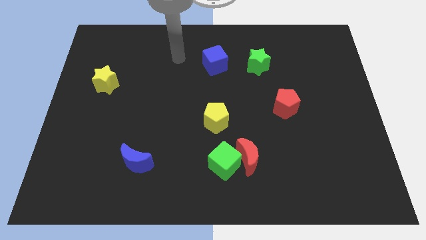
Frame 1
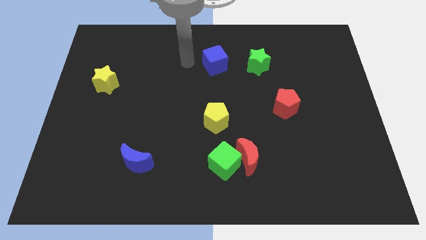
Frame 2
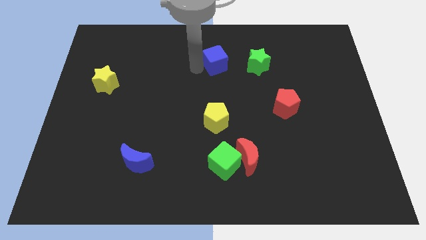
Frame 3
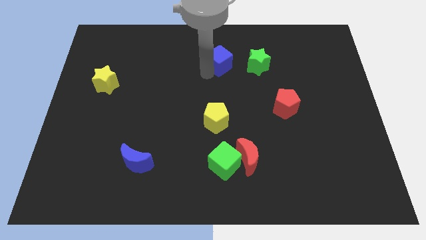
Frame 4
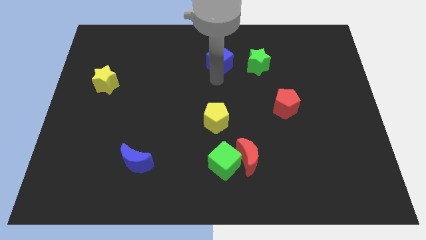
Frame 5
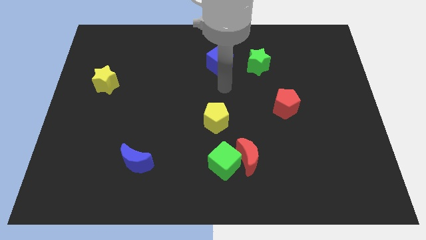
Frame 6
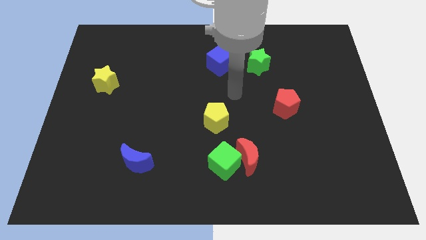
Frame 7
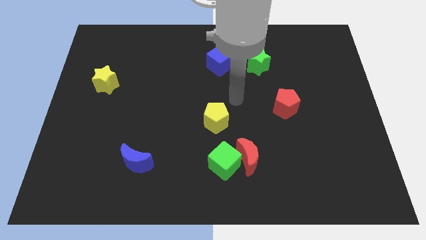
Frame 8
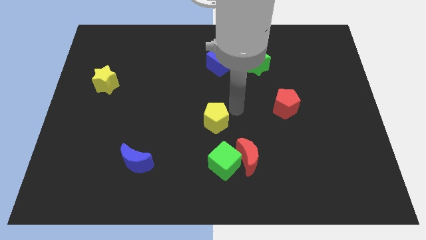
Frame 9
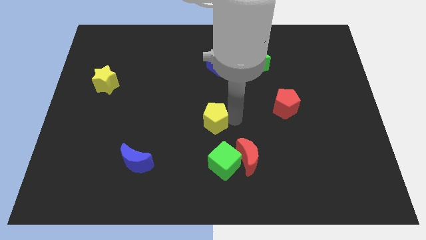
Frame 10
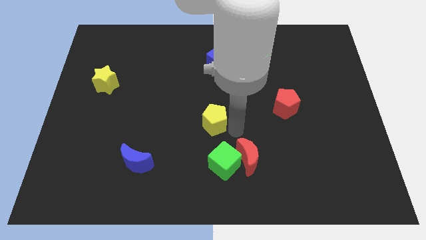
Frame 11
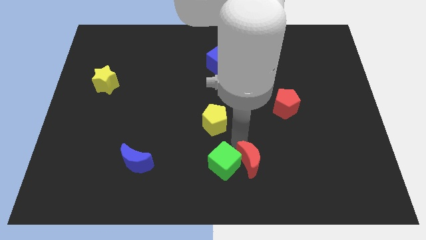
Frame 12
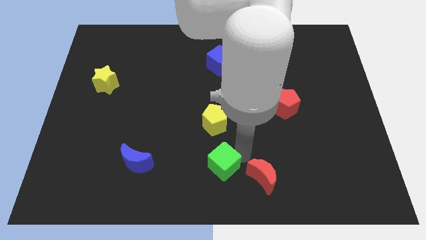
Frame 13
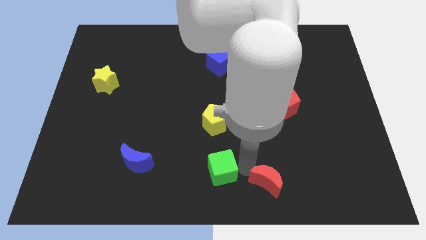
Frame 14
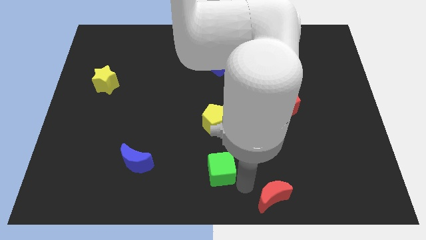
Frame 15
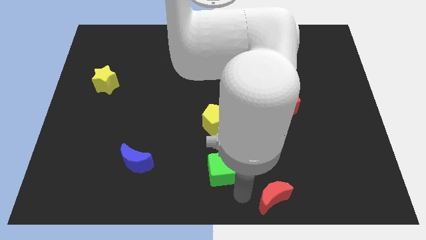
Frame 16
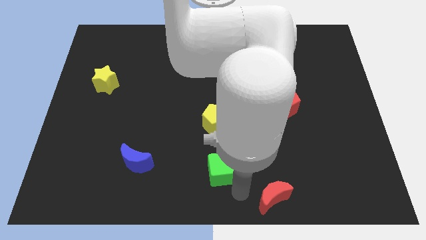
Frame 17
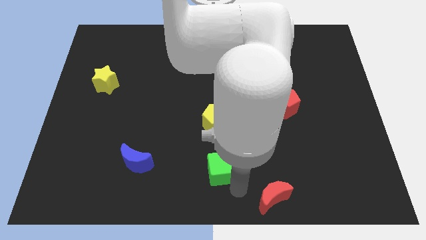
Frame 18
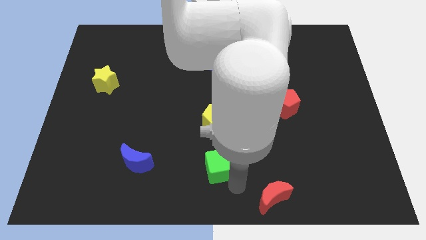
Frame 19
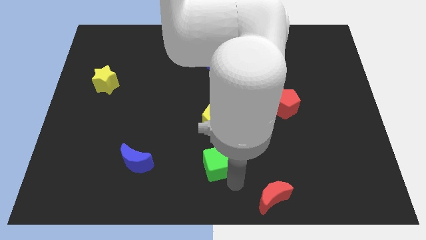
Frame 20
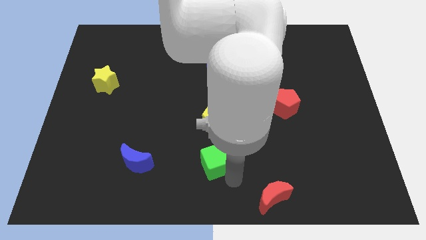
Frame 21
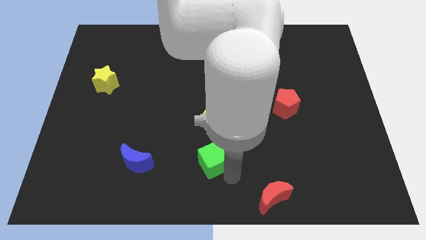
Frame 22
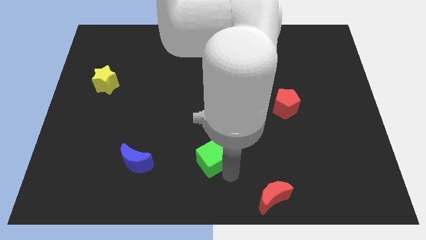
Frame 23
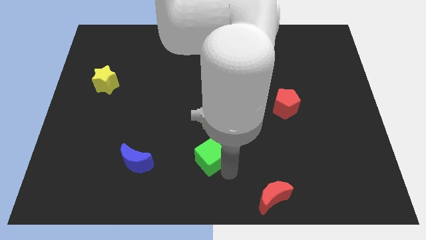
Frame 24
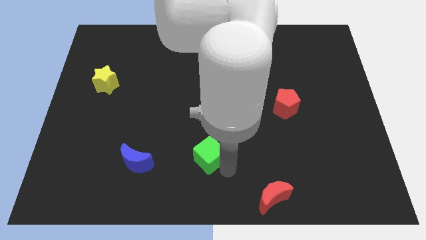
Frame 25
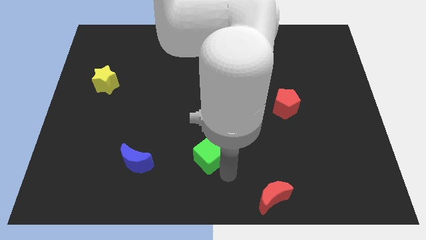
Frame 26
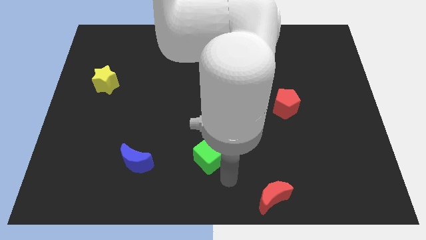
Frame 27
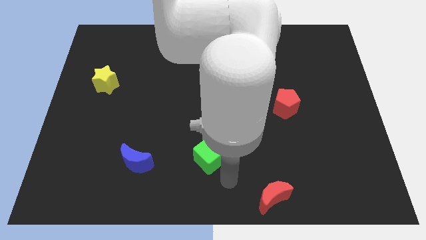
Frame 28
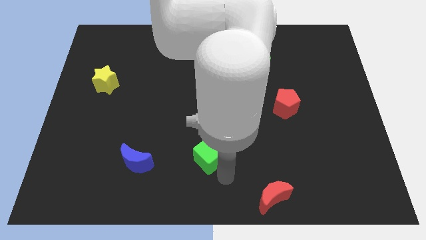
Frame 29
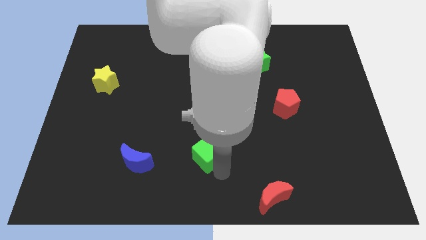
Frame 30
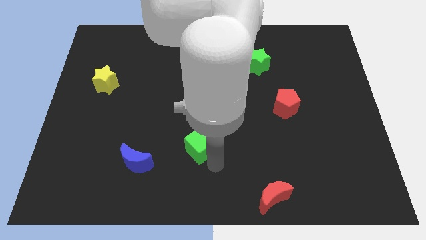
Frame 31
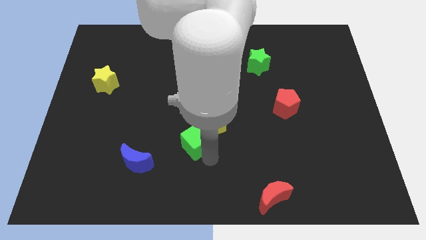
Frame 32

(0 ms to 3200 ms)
slightly move the green cube up and left

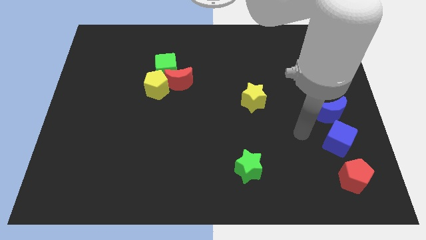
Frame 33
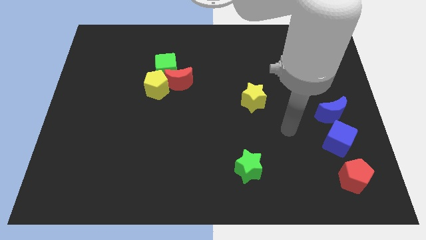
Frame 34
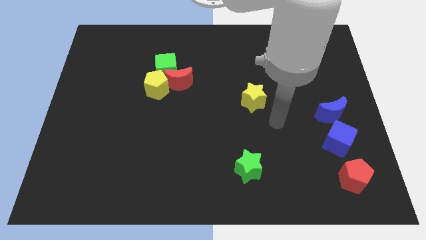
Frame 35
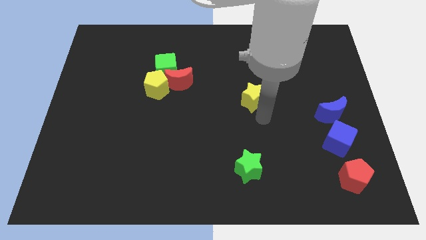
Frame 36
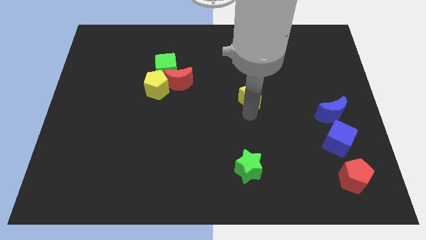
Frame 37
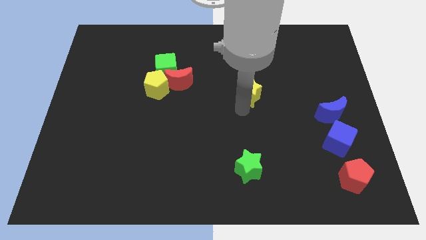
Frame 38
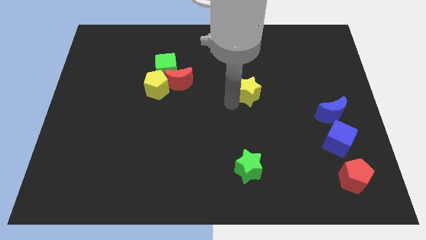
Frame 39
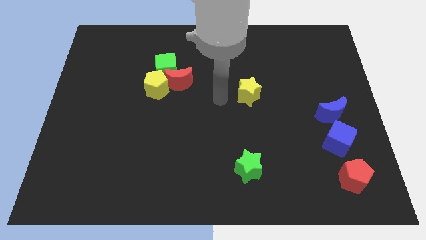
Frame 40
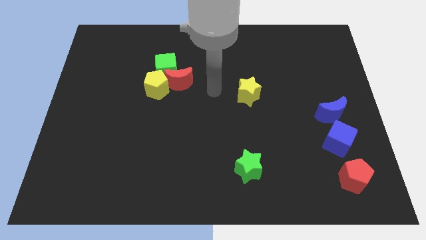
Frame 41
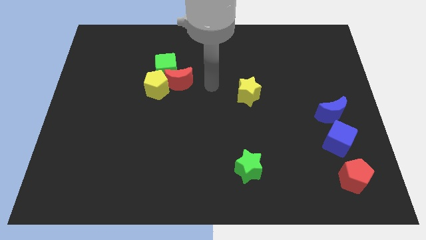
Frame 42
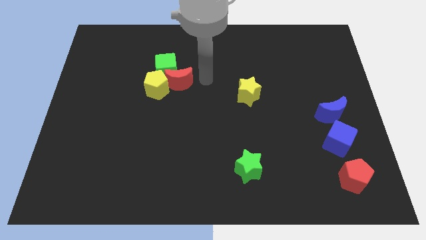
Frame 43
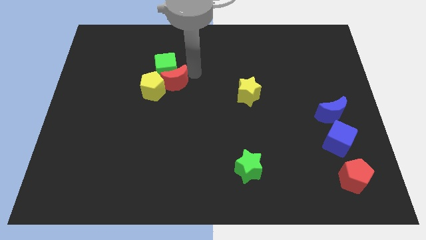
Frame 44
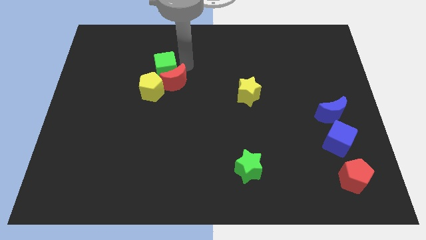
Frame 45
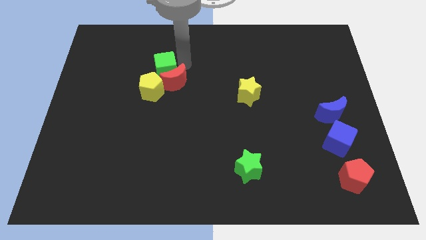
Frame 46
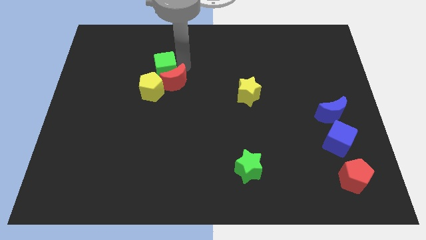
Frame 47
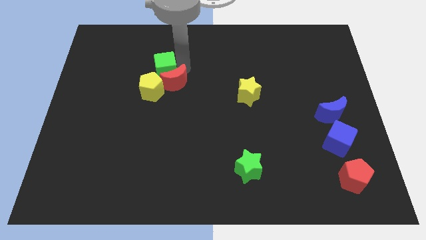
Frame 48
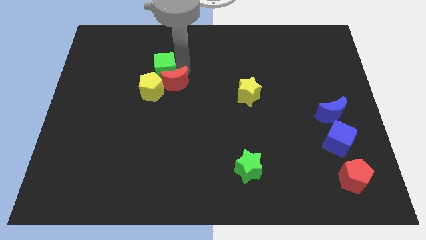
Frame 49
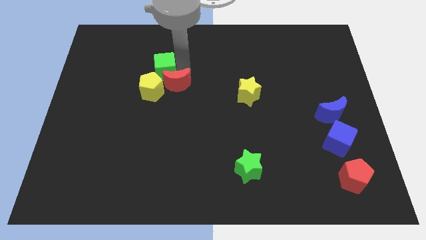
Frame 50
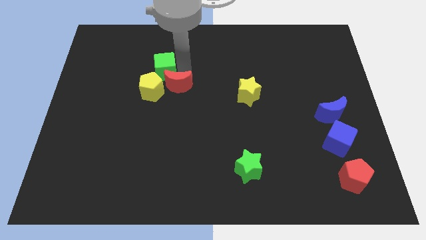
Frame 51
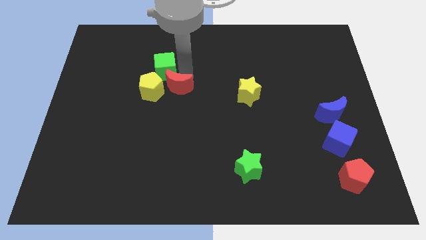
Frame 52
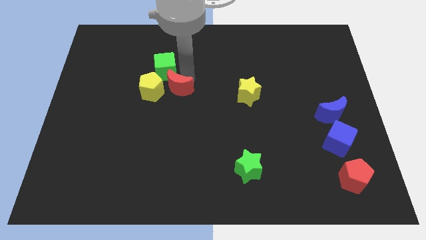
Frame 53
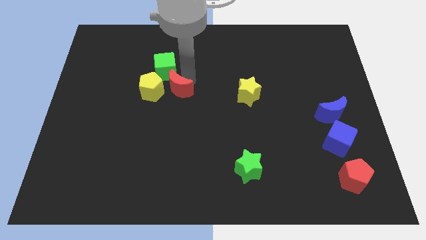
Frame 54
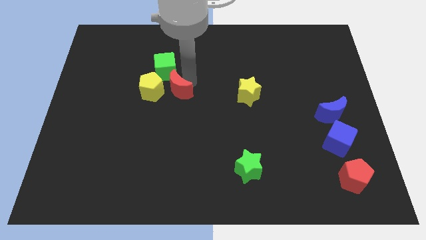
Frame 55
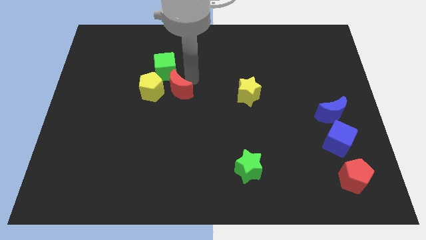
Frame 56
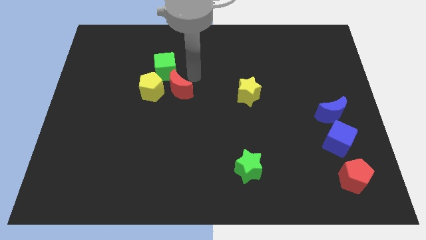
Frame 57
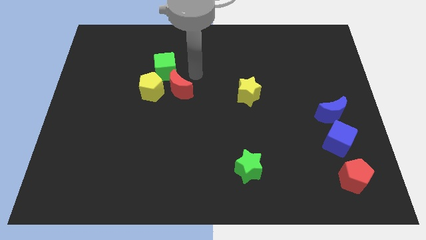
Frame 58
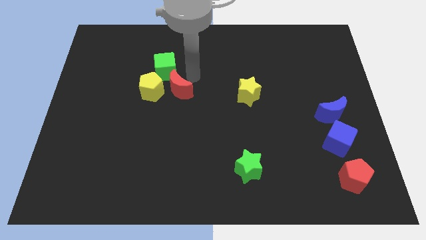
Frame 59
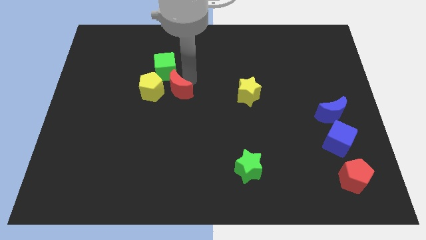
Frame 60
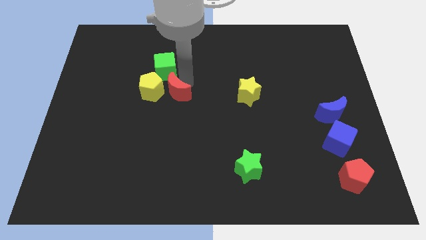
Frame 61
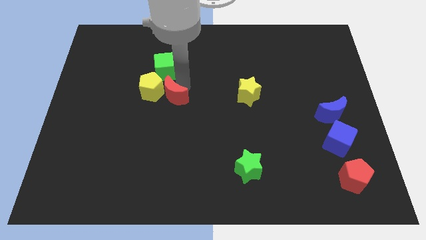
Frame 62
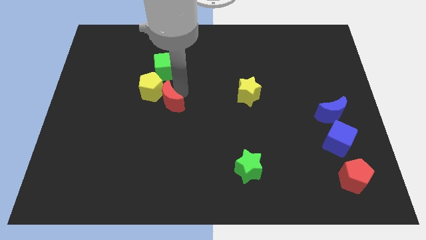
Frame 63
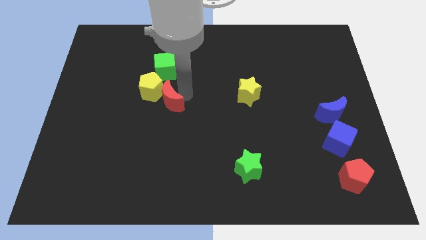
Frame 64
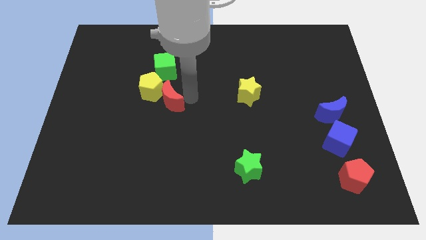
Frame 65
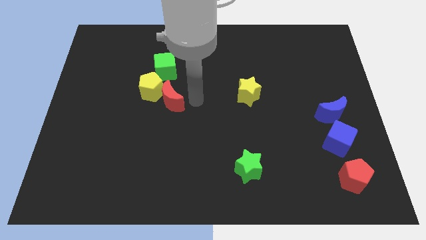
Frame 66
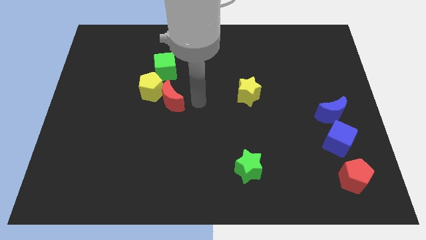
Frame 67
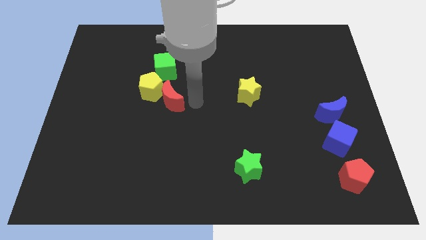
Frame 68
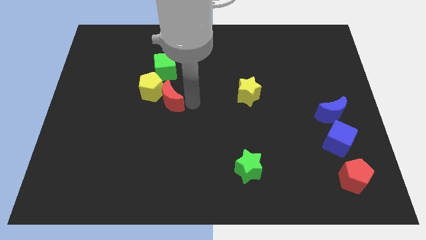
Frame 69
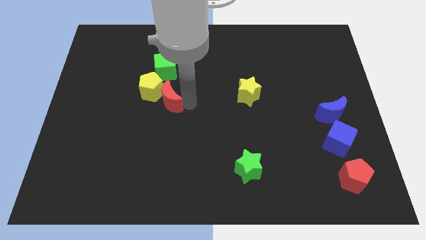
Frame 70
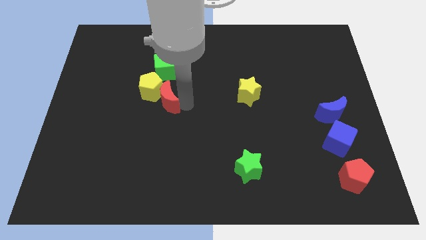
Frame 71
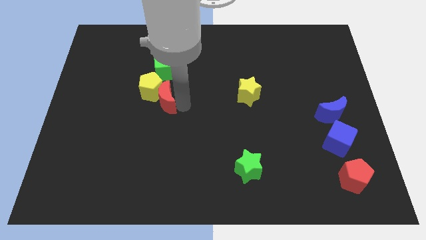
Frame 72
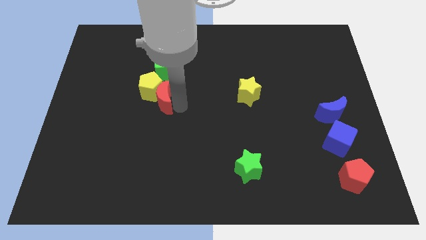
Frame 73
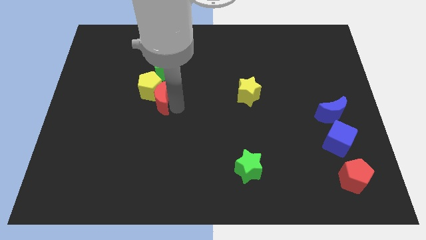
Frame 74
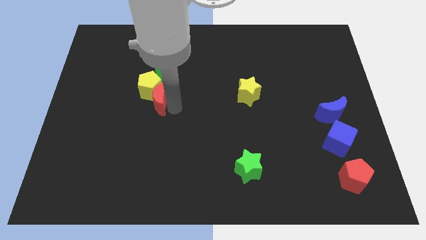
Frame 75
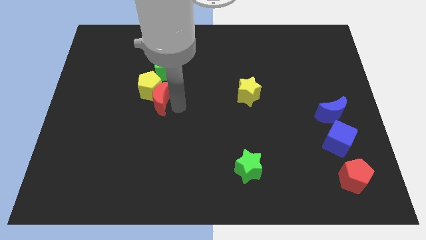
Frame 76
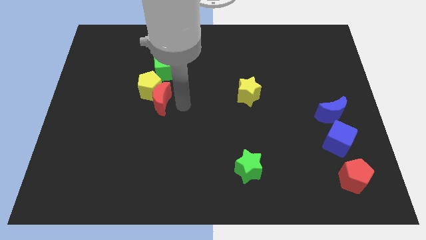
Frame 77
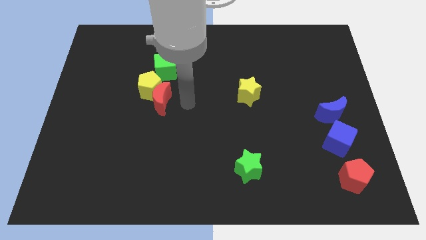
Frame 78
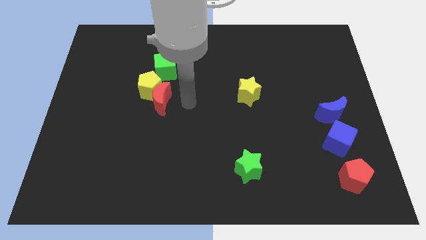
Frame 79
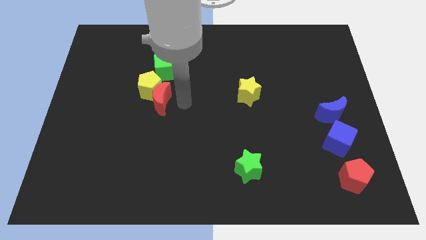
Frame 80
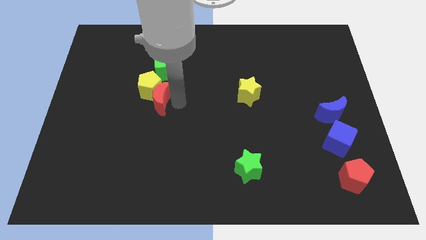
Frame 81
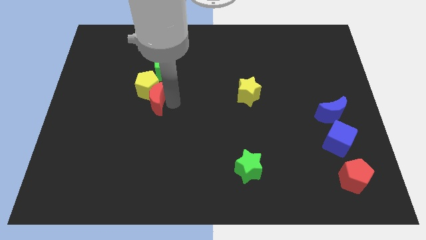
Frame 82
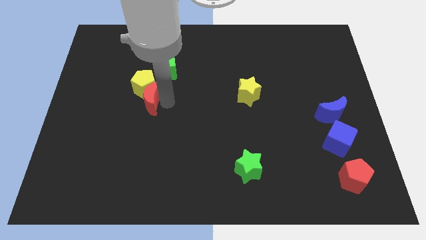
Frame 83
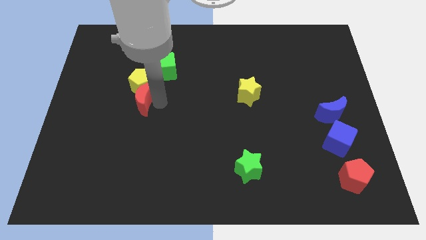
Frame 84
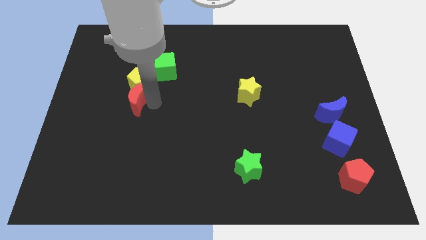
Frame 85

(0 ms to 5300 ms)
push the red moon a little to the left
